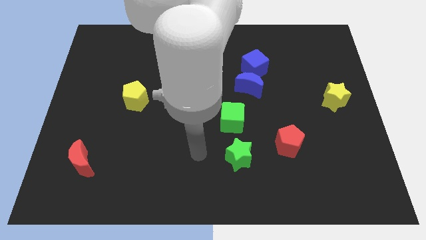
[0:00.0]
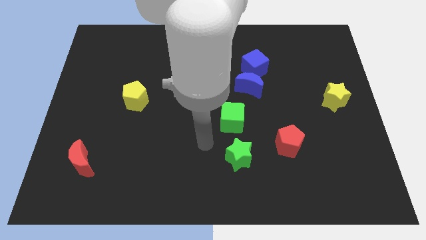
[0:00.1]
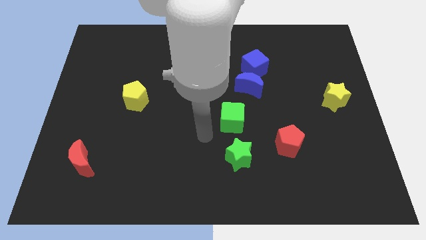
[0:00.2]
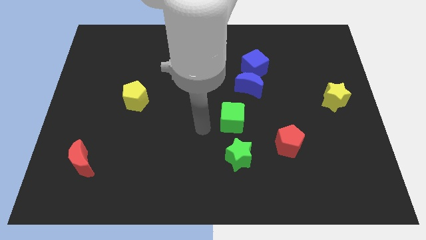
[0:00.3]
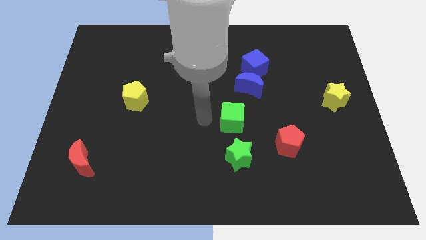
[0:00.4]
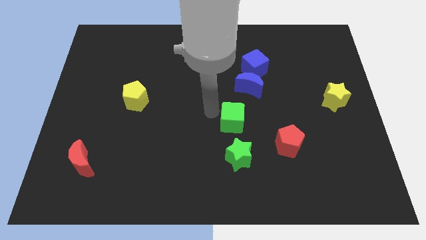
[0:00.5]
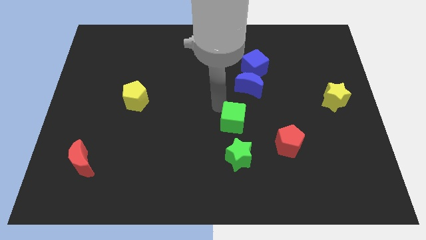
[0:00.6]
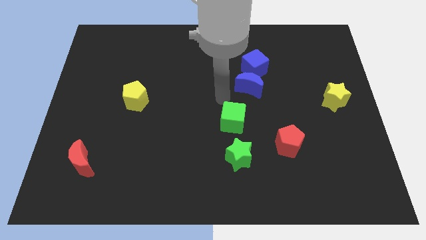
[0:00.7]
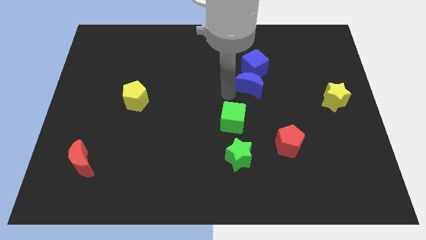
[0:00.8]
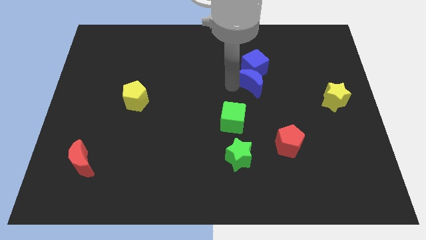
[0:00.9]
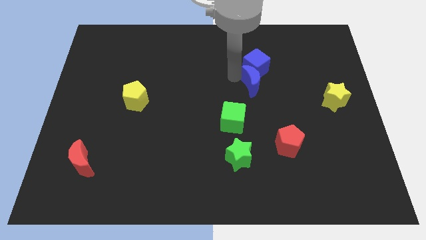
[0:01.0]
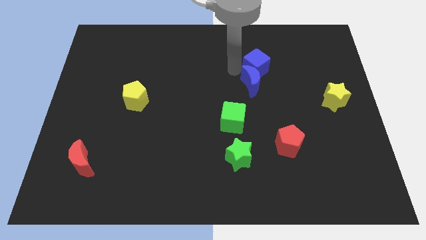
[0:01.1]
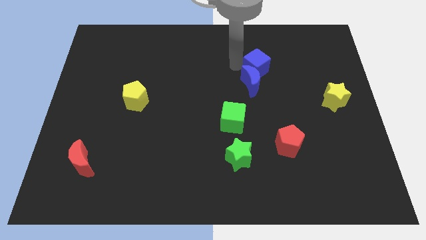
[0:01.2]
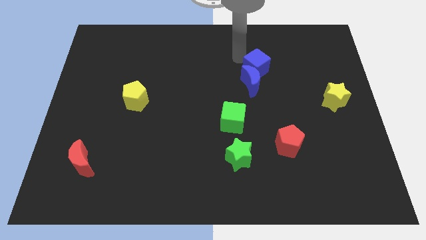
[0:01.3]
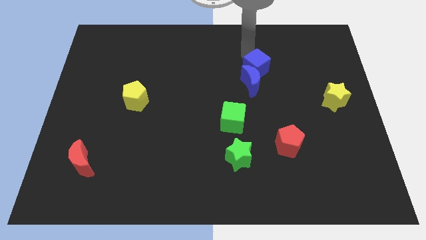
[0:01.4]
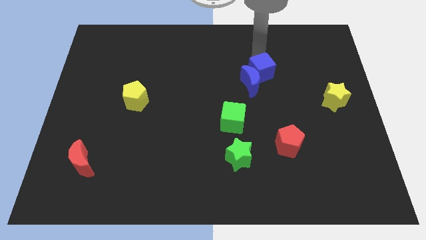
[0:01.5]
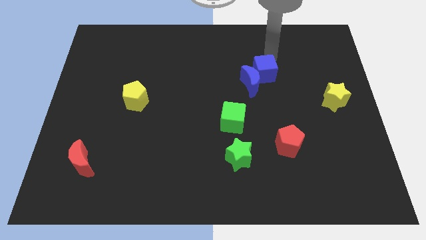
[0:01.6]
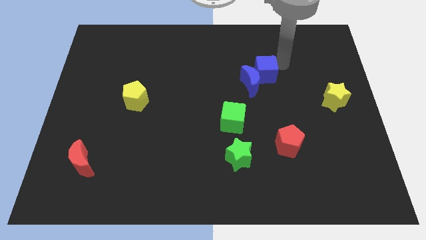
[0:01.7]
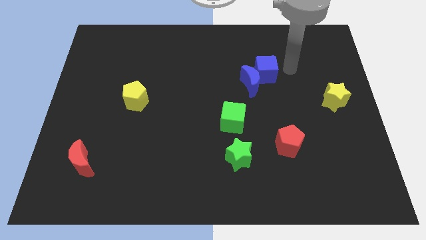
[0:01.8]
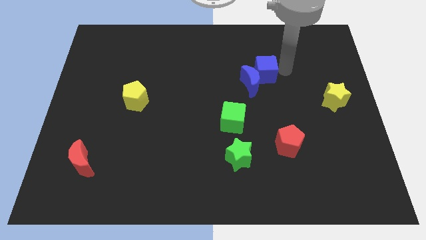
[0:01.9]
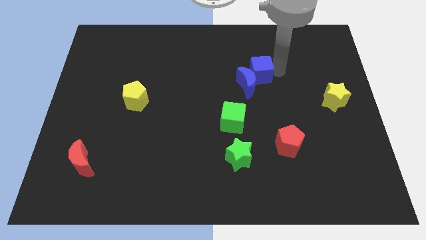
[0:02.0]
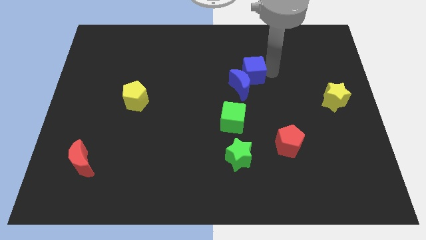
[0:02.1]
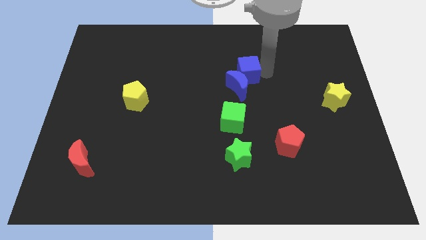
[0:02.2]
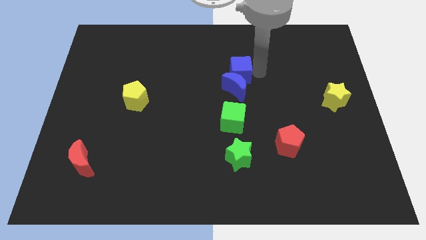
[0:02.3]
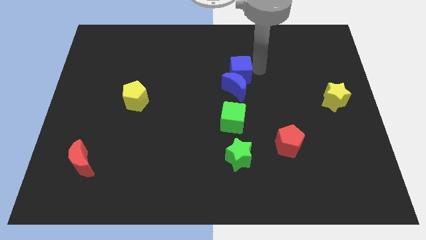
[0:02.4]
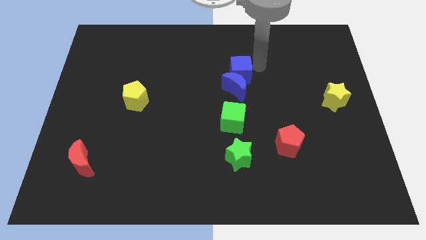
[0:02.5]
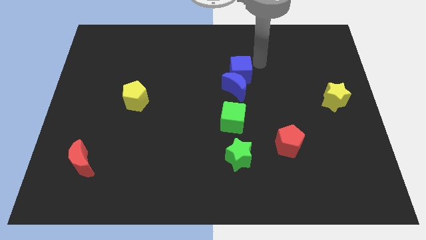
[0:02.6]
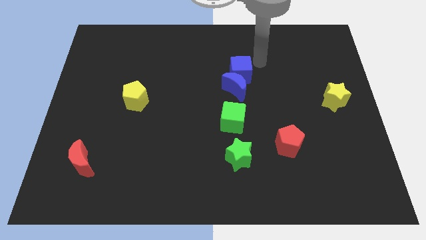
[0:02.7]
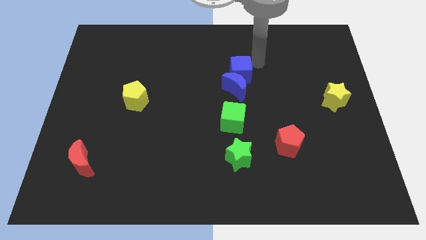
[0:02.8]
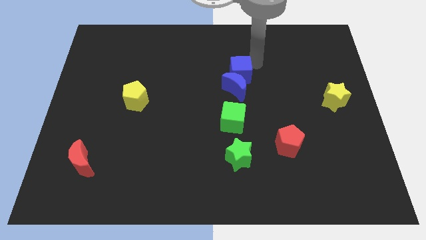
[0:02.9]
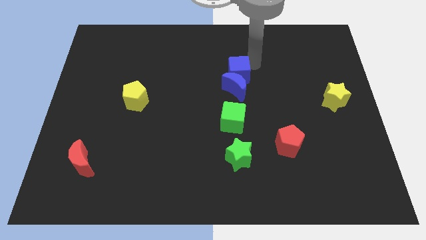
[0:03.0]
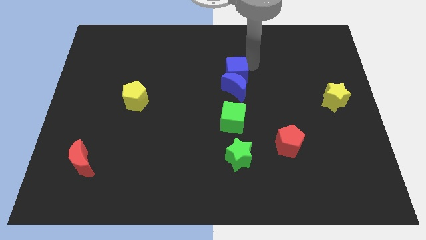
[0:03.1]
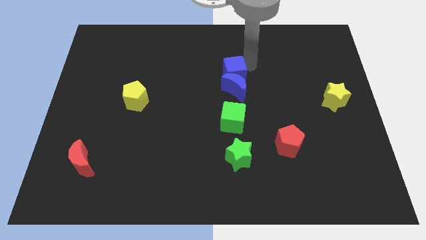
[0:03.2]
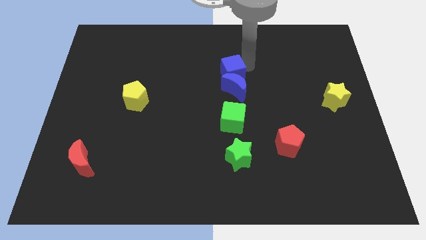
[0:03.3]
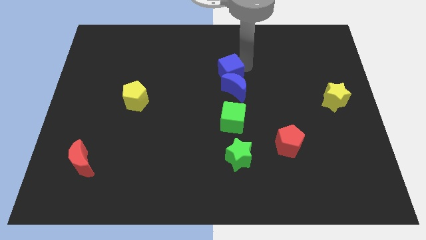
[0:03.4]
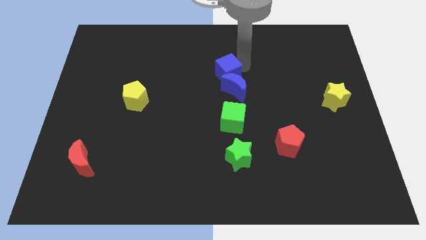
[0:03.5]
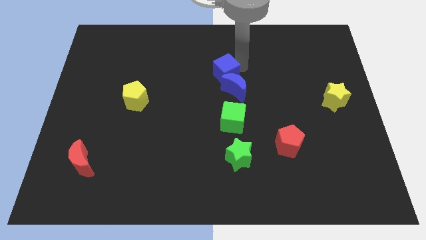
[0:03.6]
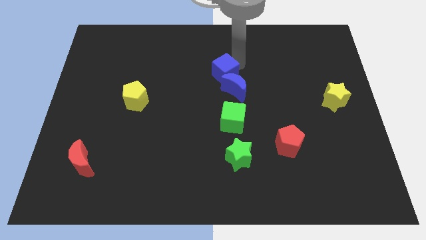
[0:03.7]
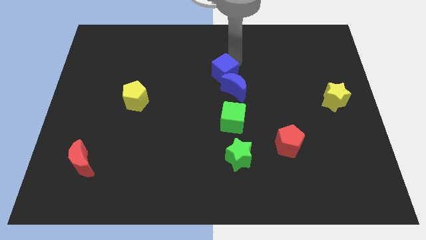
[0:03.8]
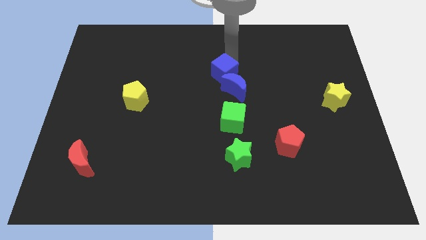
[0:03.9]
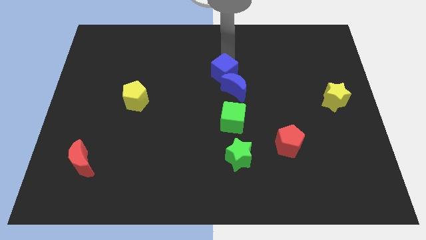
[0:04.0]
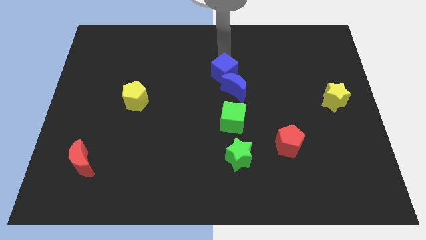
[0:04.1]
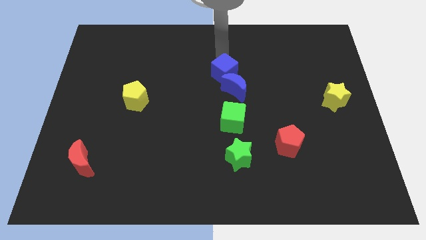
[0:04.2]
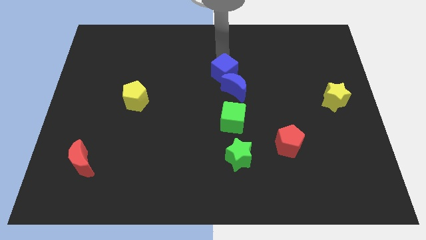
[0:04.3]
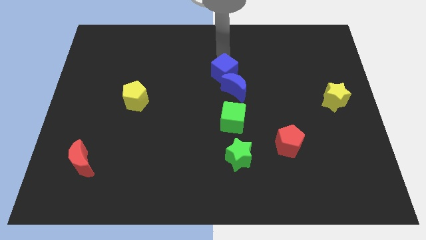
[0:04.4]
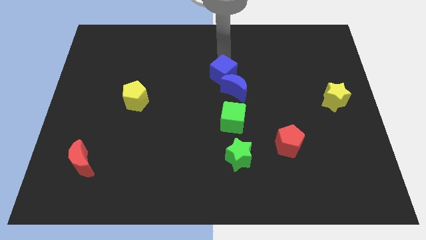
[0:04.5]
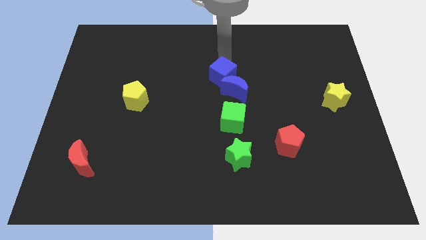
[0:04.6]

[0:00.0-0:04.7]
move the blue cube diagonally downwards and left a little

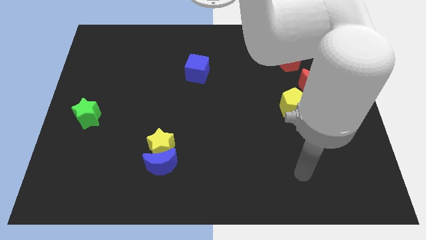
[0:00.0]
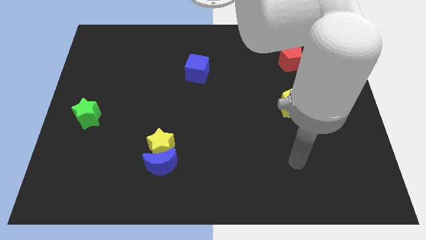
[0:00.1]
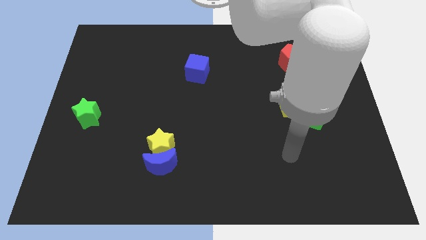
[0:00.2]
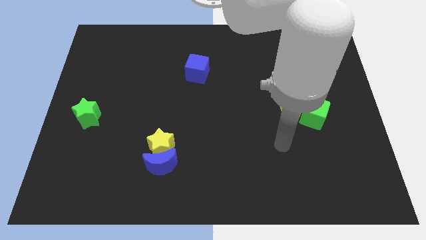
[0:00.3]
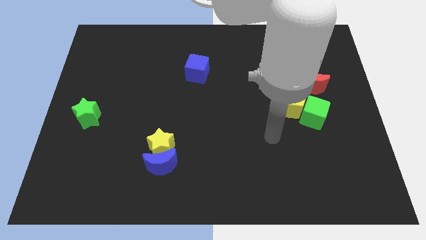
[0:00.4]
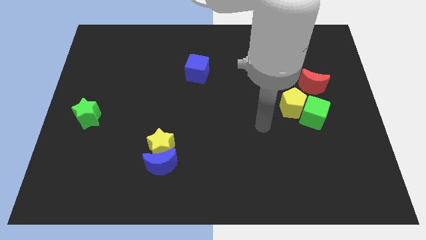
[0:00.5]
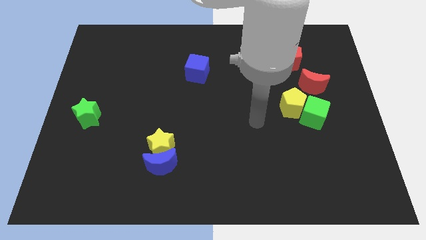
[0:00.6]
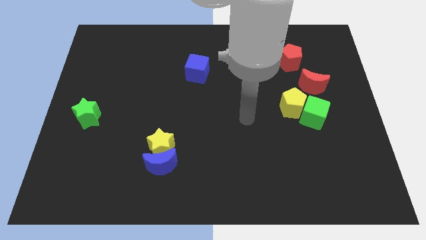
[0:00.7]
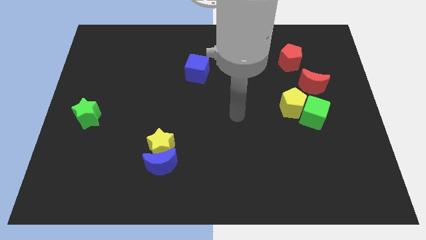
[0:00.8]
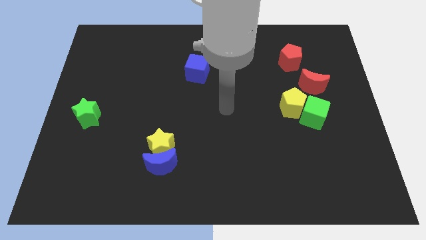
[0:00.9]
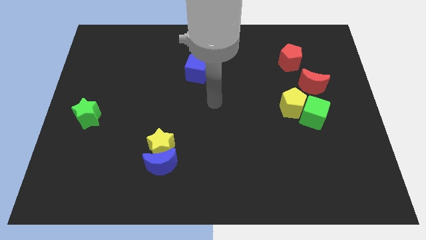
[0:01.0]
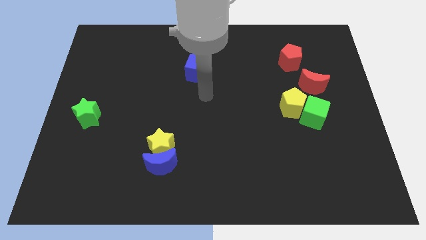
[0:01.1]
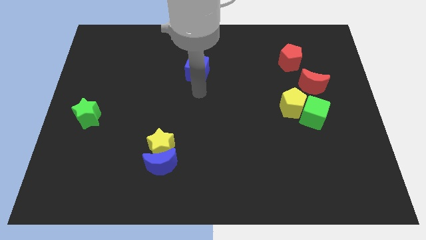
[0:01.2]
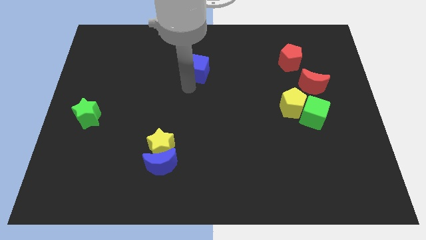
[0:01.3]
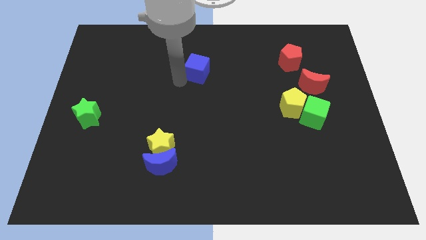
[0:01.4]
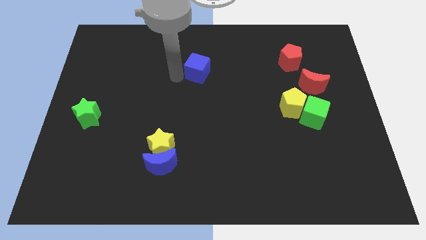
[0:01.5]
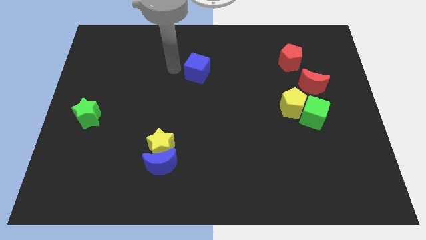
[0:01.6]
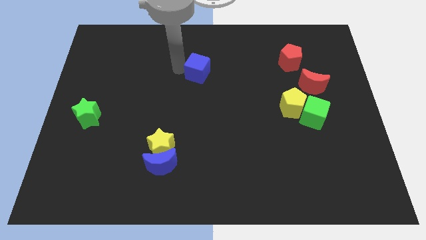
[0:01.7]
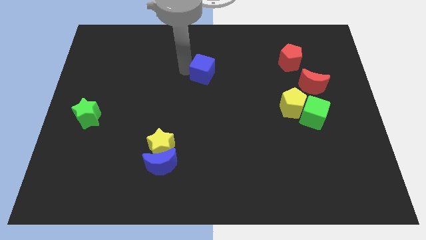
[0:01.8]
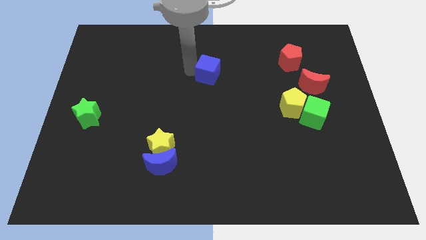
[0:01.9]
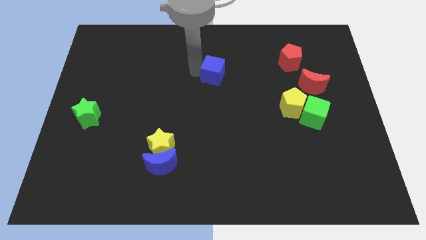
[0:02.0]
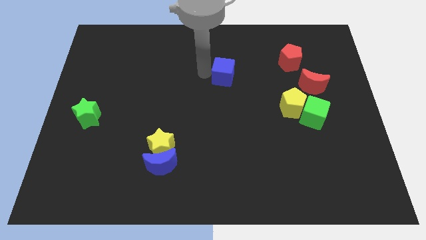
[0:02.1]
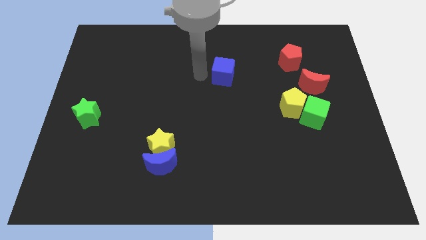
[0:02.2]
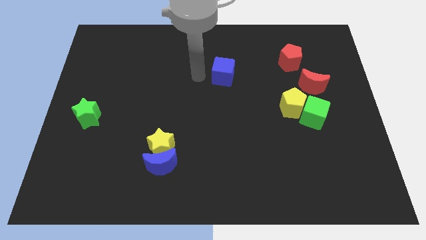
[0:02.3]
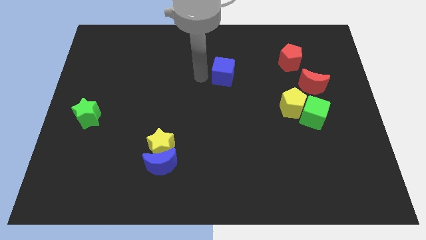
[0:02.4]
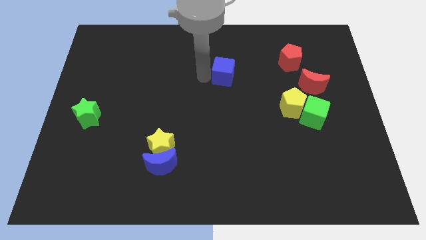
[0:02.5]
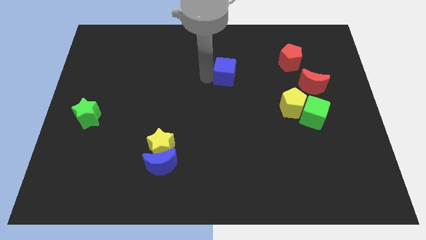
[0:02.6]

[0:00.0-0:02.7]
slightly push the blue cube right

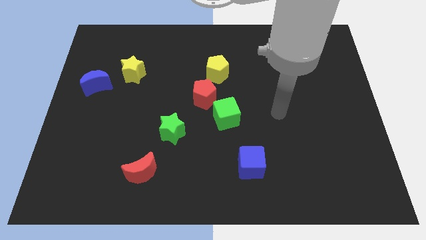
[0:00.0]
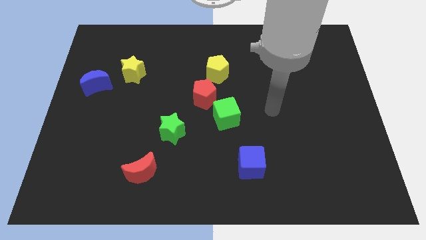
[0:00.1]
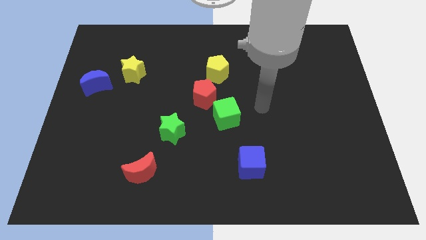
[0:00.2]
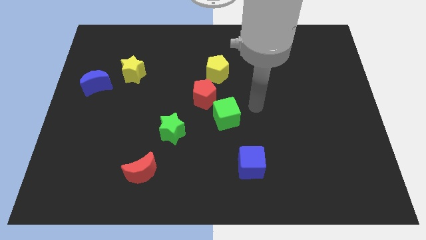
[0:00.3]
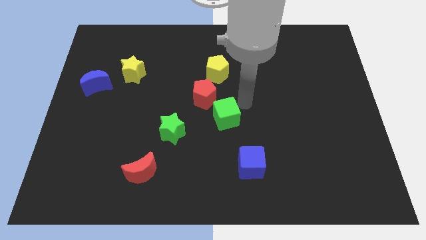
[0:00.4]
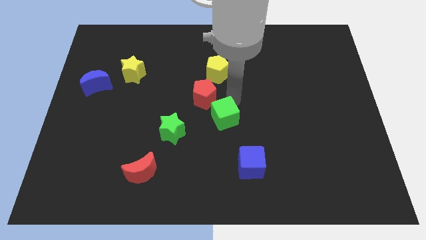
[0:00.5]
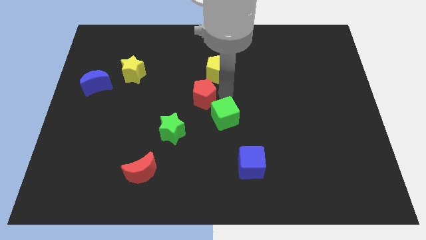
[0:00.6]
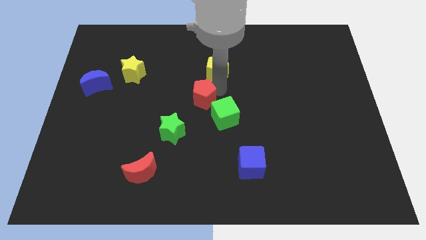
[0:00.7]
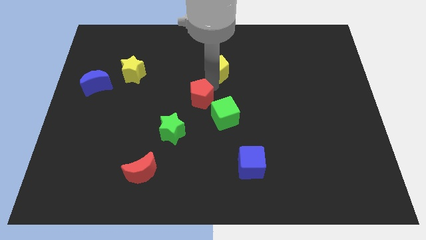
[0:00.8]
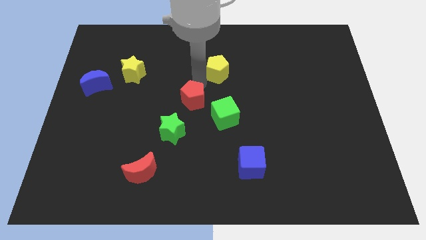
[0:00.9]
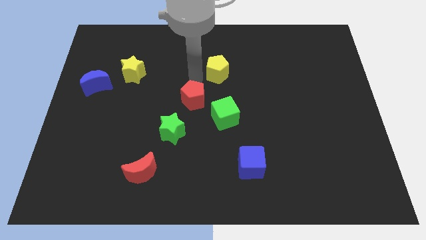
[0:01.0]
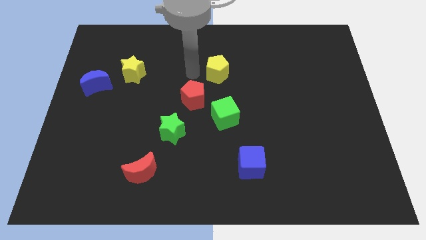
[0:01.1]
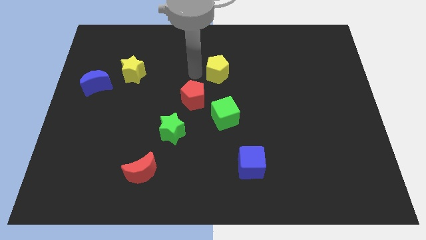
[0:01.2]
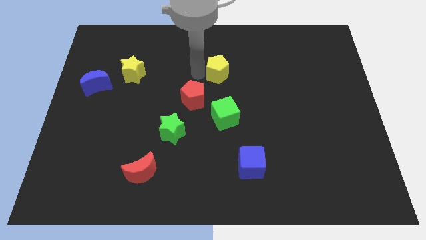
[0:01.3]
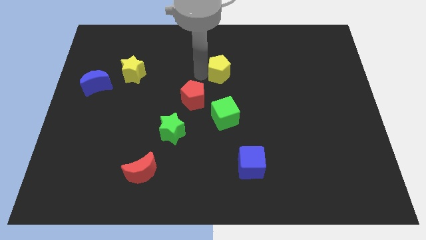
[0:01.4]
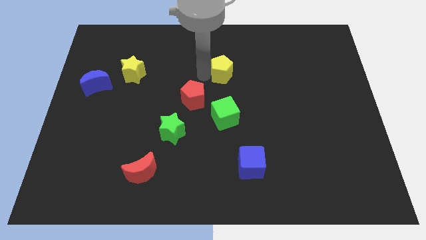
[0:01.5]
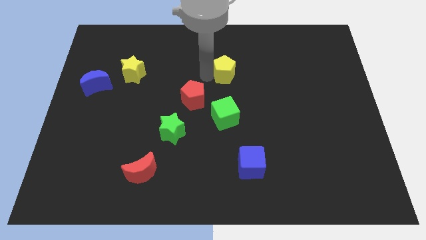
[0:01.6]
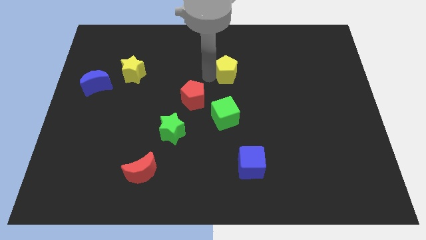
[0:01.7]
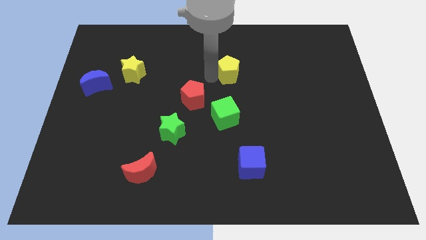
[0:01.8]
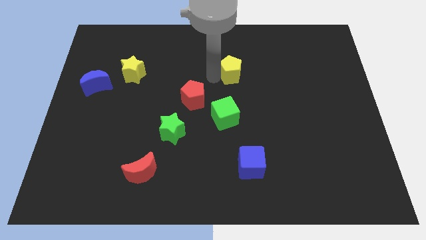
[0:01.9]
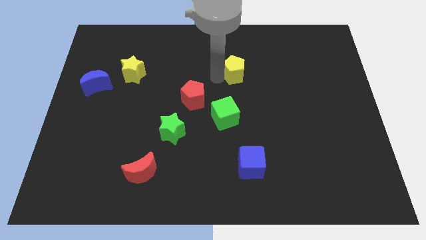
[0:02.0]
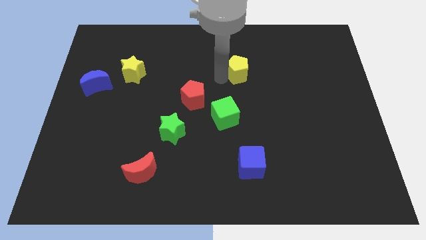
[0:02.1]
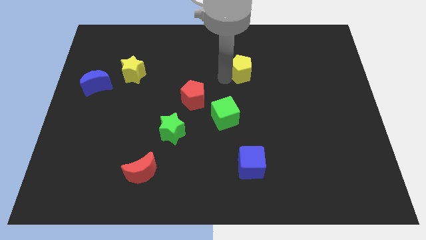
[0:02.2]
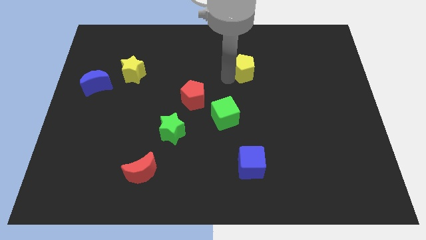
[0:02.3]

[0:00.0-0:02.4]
move the yellow pentagon to the right a little bit
